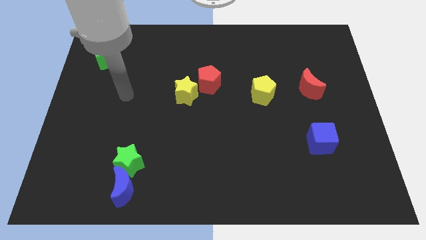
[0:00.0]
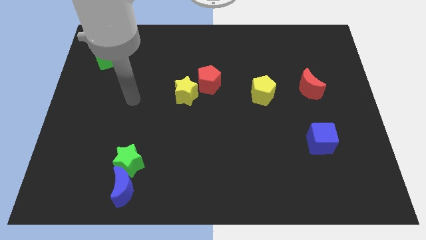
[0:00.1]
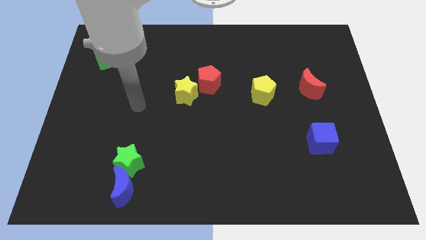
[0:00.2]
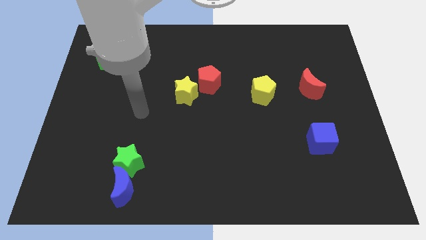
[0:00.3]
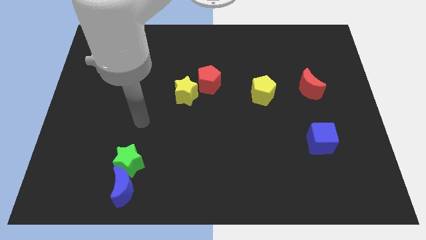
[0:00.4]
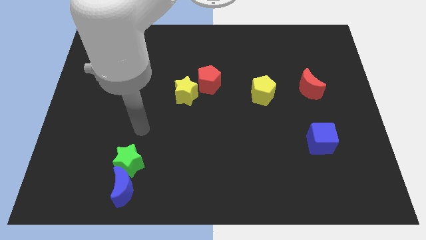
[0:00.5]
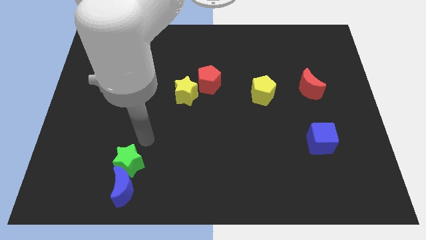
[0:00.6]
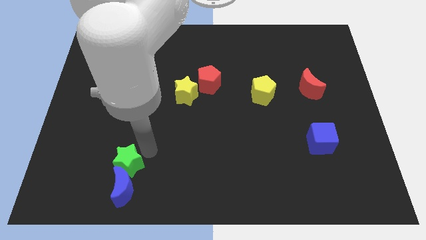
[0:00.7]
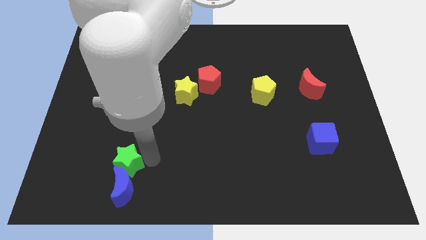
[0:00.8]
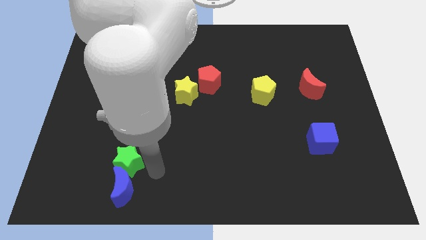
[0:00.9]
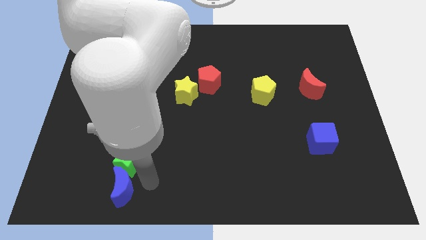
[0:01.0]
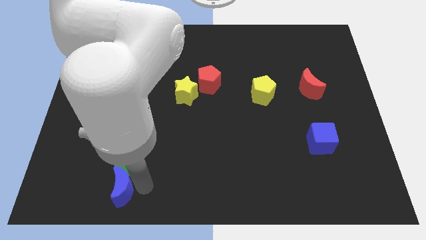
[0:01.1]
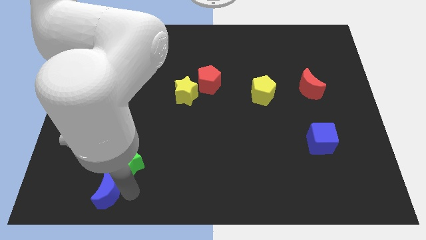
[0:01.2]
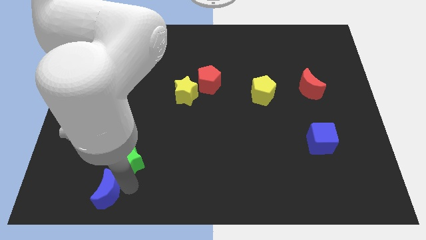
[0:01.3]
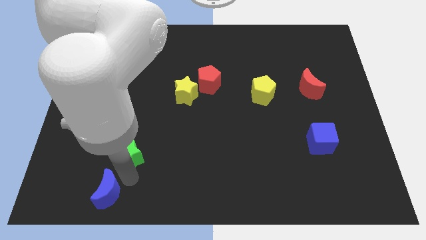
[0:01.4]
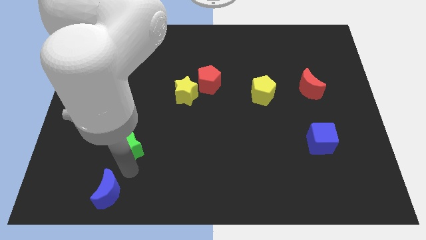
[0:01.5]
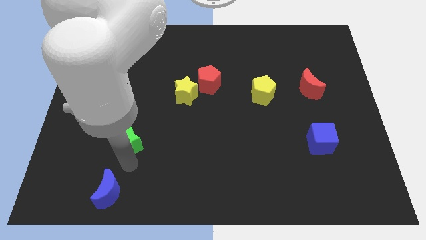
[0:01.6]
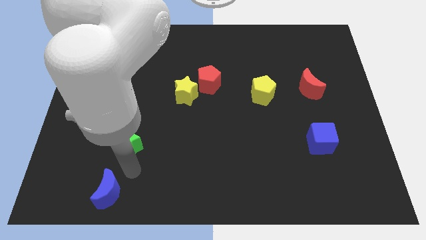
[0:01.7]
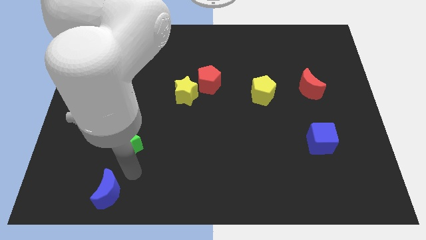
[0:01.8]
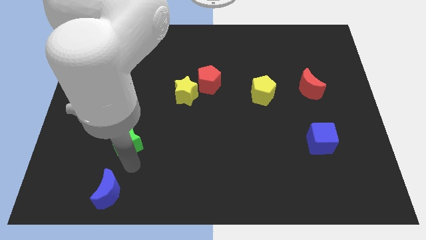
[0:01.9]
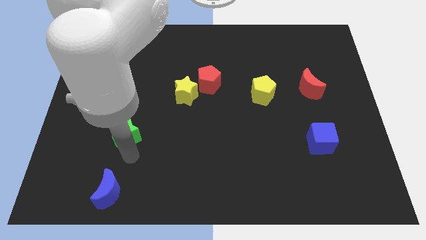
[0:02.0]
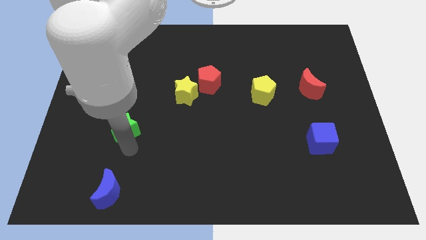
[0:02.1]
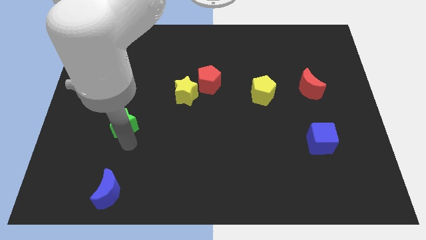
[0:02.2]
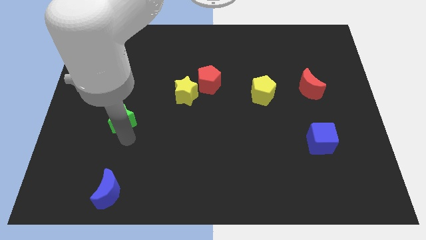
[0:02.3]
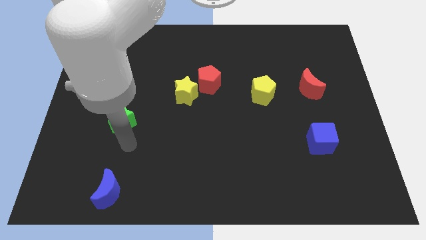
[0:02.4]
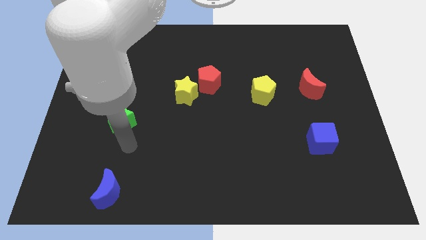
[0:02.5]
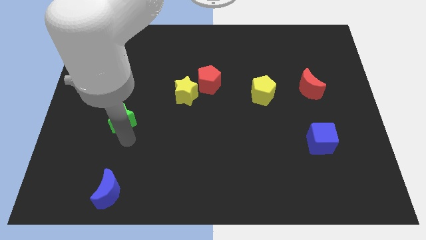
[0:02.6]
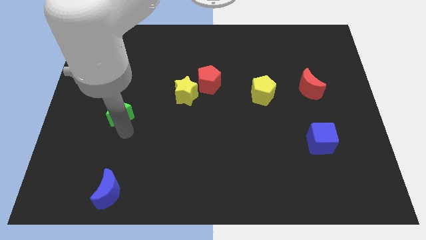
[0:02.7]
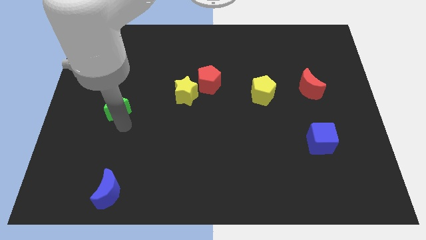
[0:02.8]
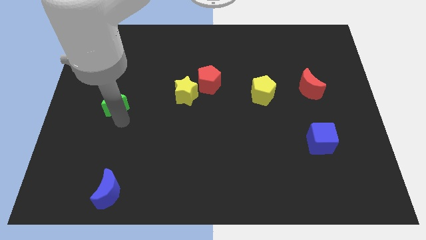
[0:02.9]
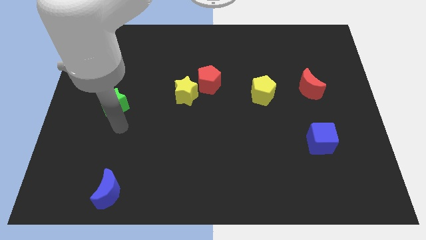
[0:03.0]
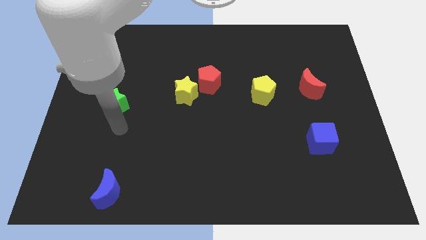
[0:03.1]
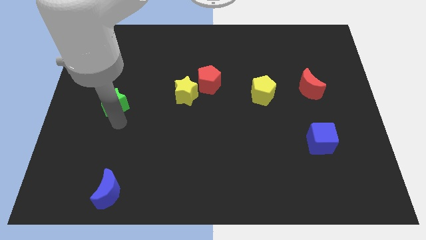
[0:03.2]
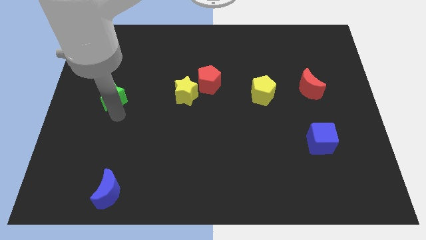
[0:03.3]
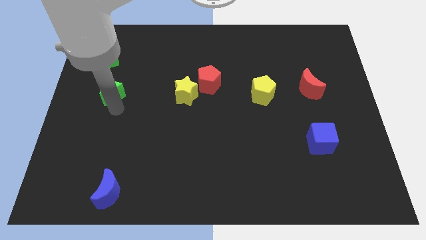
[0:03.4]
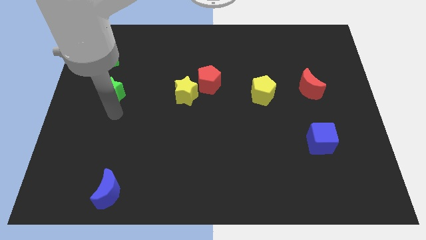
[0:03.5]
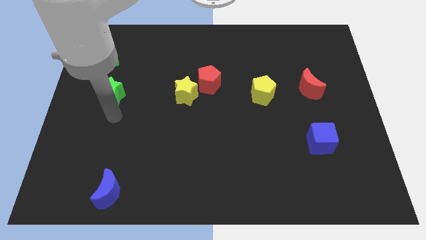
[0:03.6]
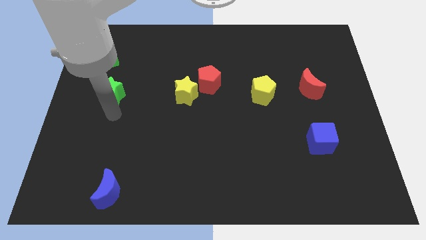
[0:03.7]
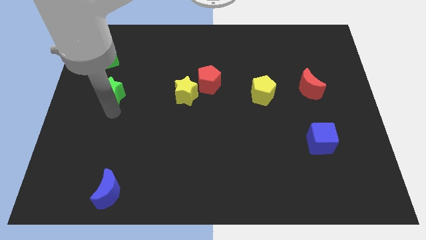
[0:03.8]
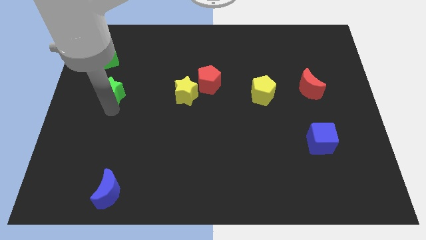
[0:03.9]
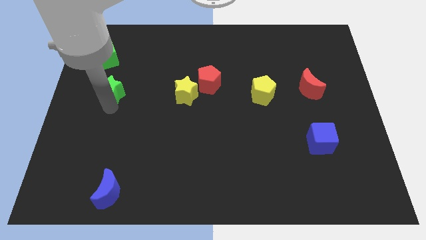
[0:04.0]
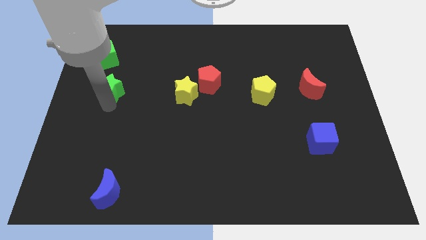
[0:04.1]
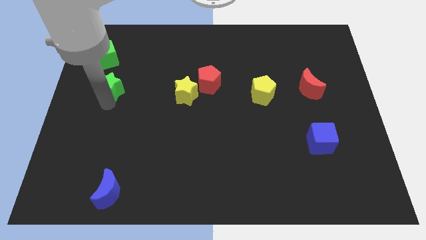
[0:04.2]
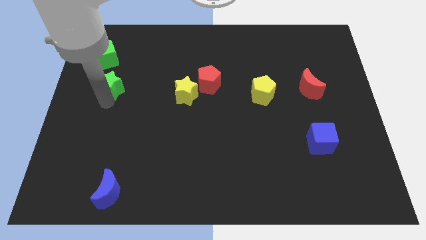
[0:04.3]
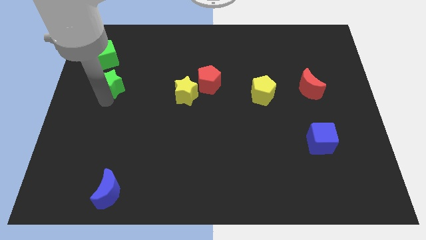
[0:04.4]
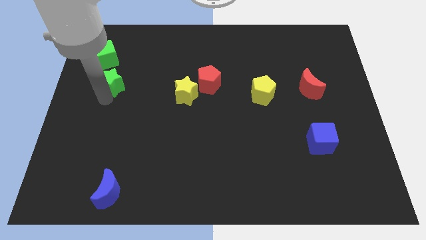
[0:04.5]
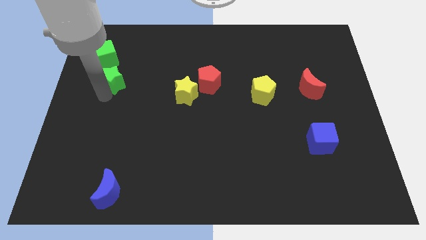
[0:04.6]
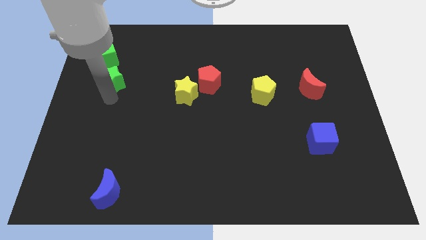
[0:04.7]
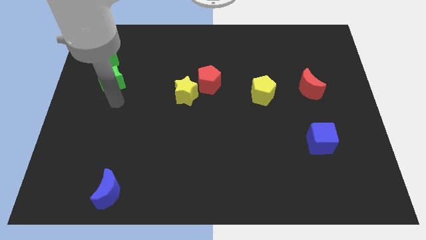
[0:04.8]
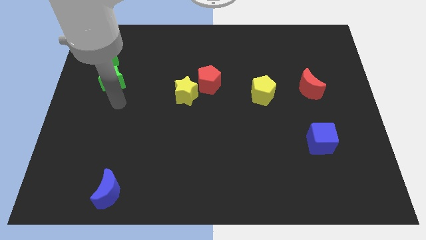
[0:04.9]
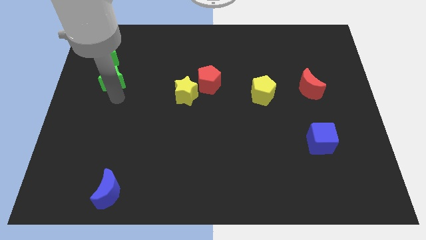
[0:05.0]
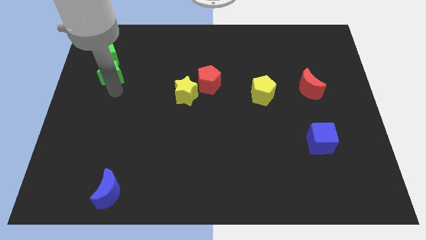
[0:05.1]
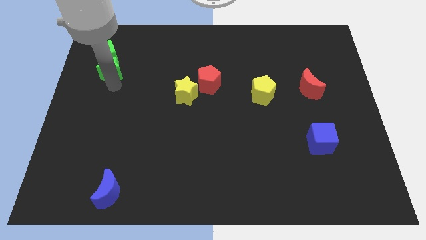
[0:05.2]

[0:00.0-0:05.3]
push the green star next to the green cube

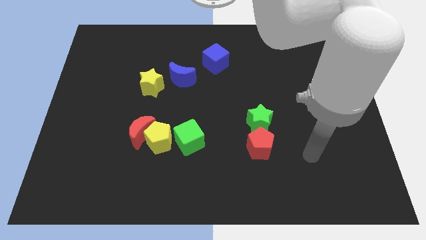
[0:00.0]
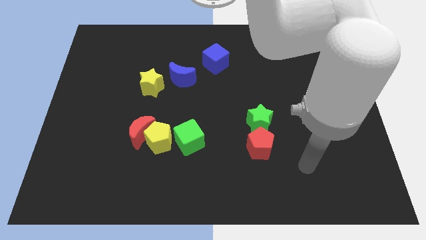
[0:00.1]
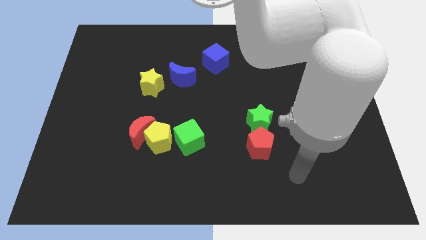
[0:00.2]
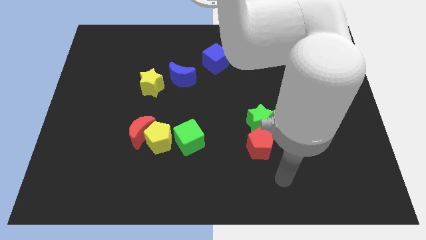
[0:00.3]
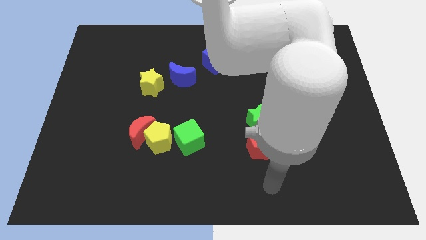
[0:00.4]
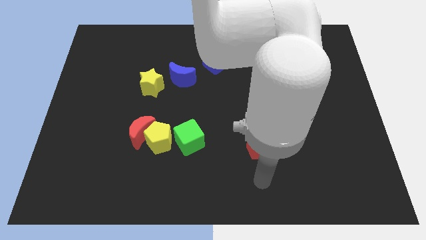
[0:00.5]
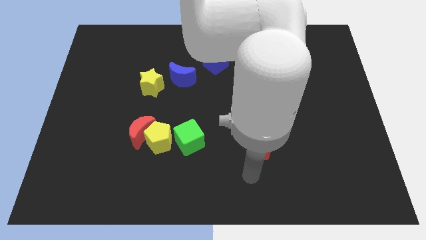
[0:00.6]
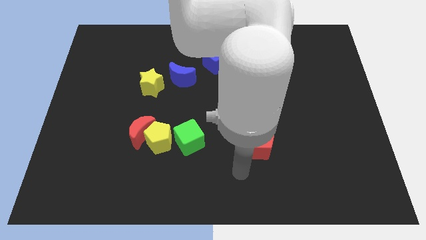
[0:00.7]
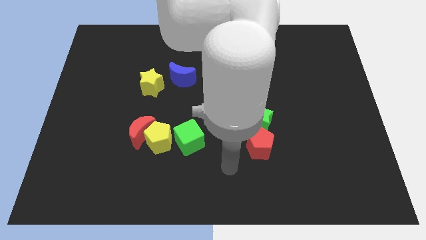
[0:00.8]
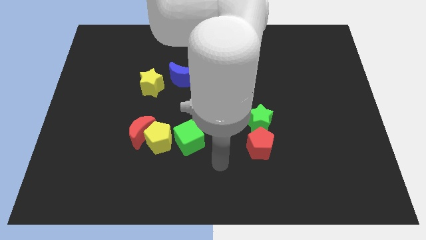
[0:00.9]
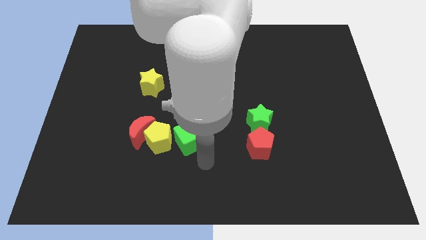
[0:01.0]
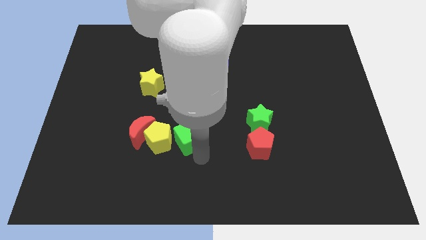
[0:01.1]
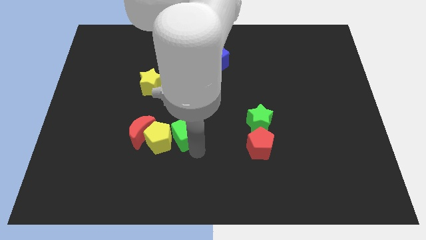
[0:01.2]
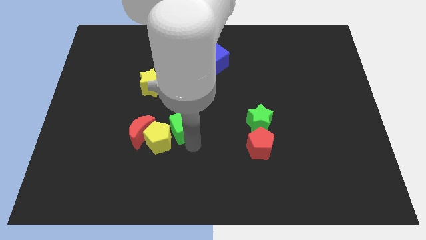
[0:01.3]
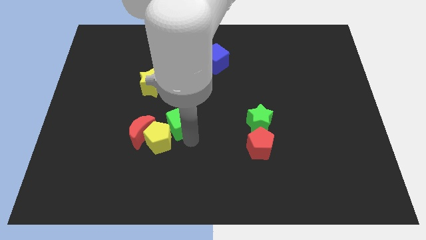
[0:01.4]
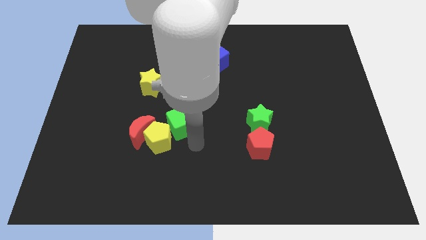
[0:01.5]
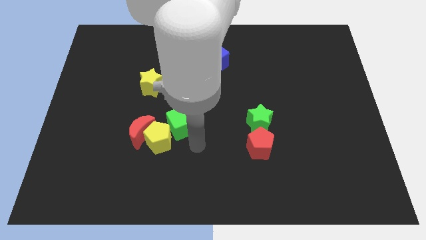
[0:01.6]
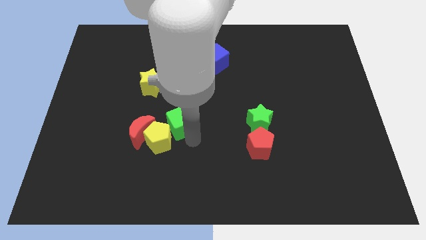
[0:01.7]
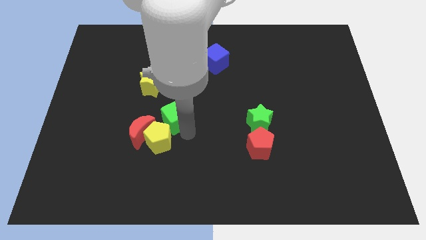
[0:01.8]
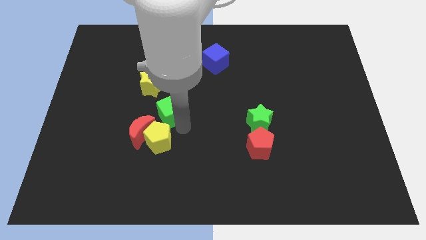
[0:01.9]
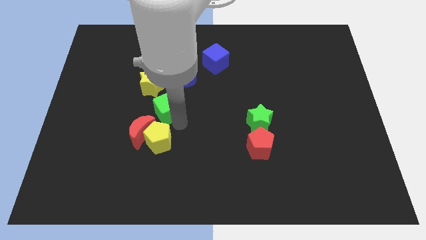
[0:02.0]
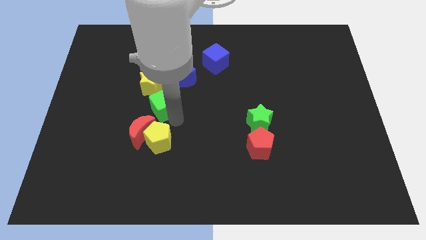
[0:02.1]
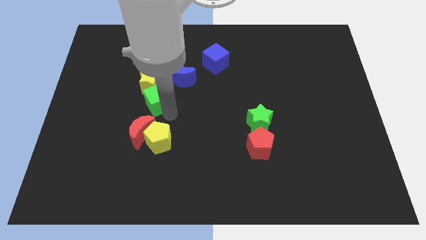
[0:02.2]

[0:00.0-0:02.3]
put the green cube towards the yellow star
